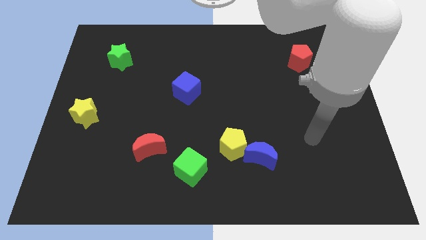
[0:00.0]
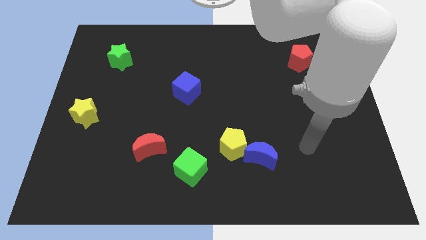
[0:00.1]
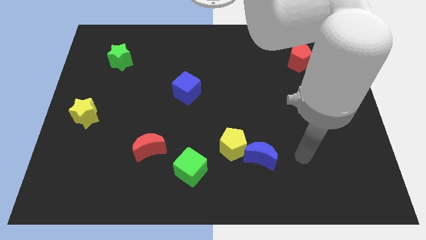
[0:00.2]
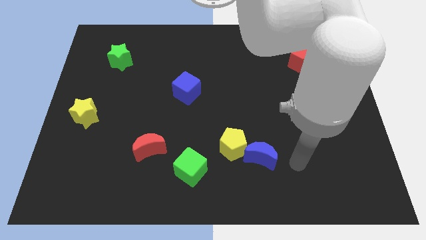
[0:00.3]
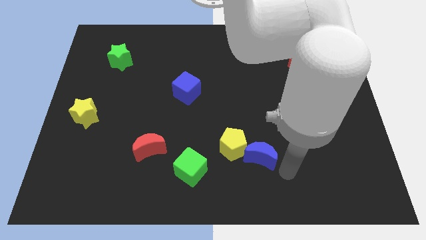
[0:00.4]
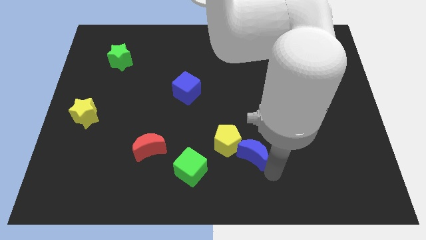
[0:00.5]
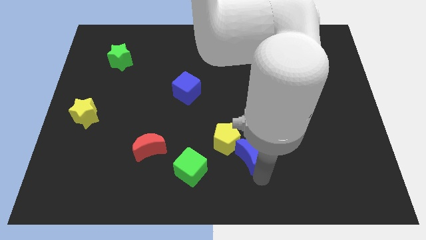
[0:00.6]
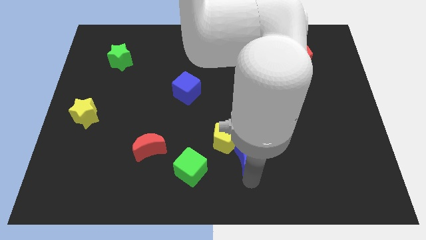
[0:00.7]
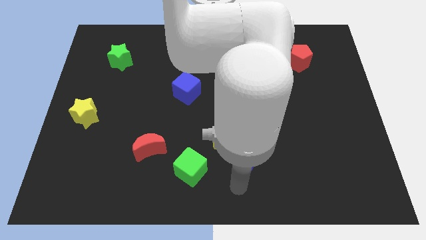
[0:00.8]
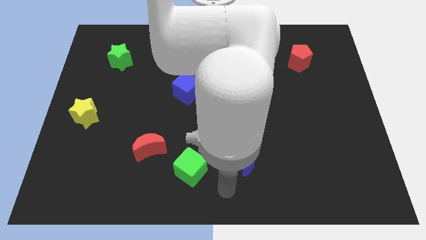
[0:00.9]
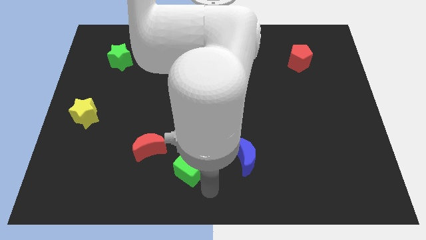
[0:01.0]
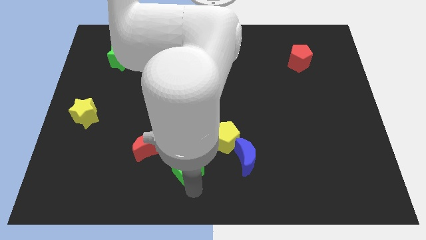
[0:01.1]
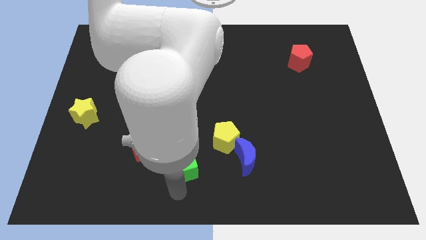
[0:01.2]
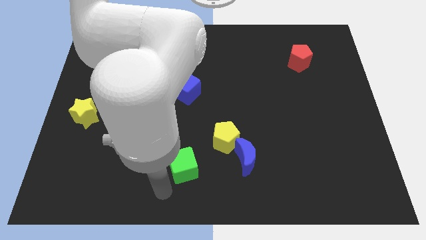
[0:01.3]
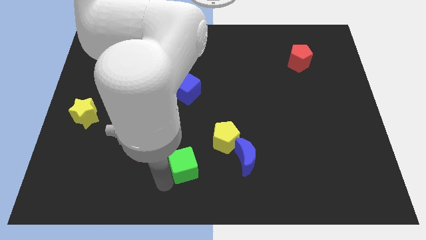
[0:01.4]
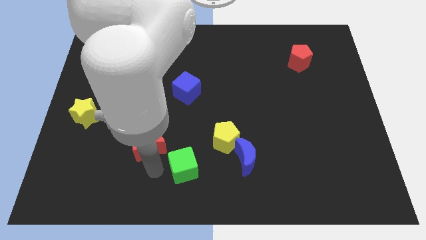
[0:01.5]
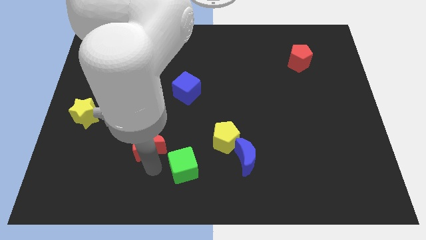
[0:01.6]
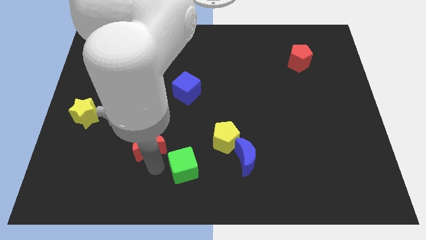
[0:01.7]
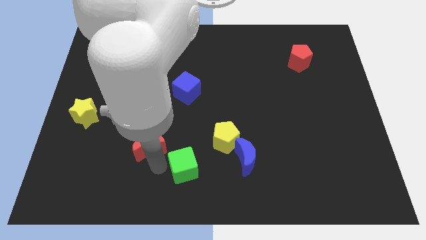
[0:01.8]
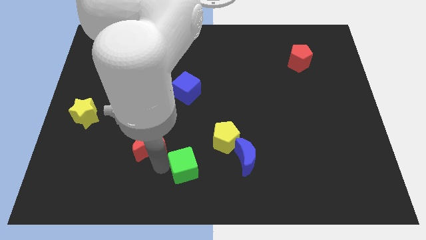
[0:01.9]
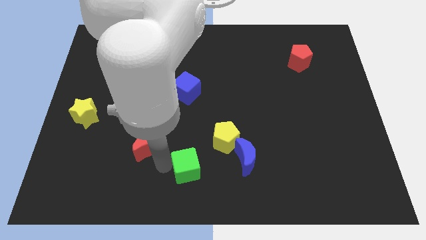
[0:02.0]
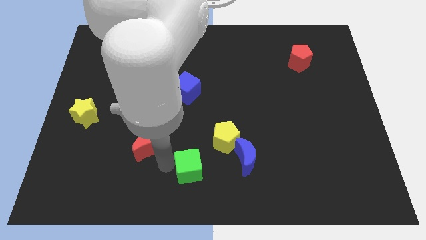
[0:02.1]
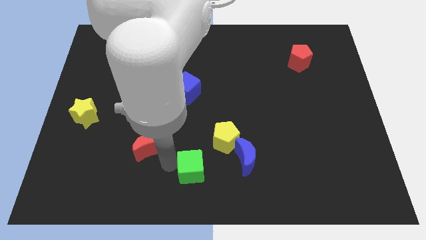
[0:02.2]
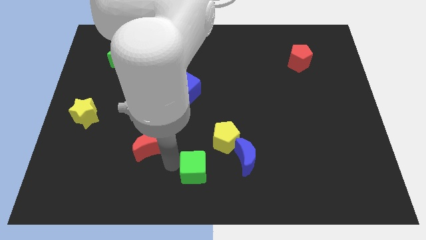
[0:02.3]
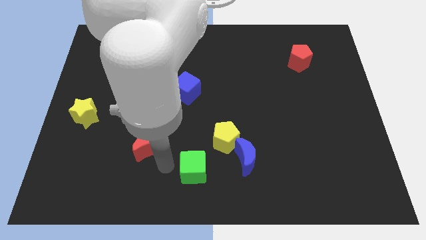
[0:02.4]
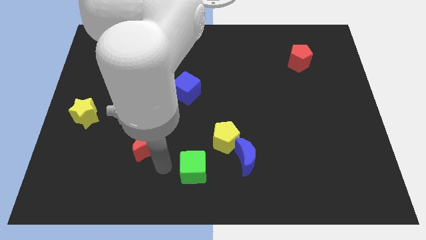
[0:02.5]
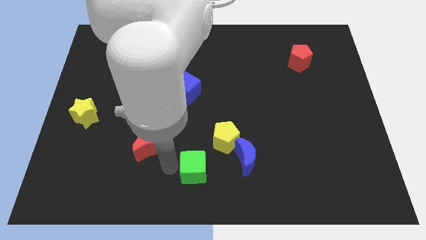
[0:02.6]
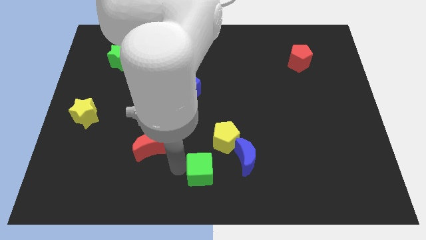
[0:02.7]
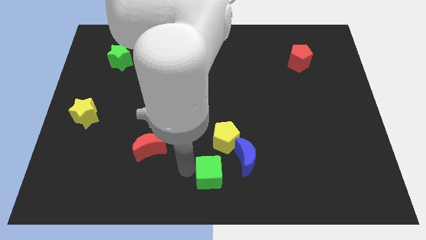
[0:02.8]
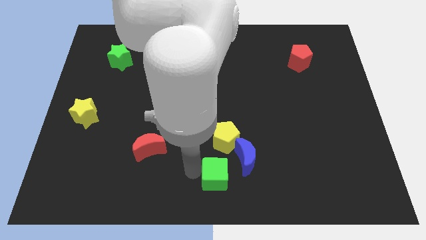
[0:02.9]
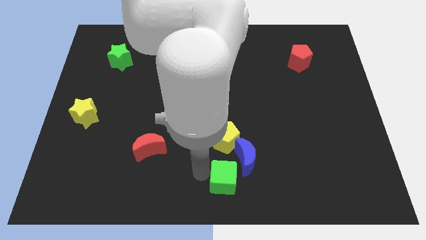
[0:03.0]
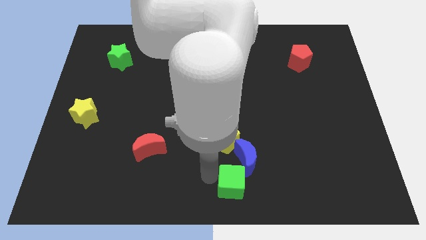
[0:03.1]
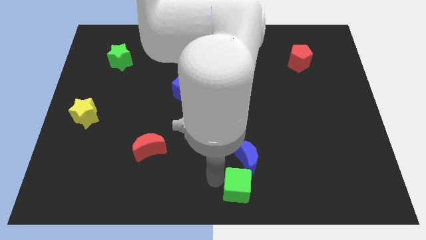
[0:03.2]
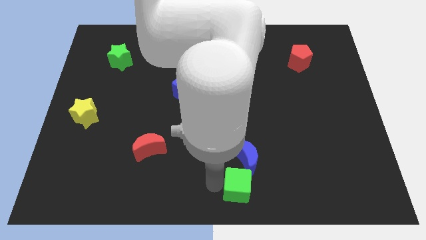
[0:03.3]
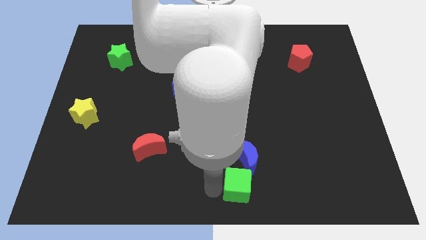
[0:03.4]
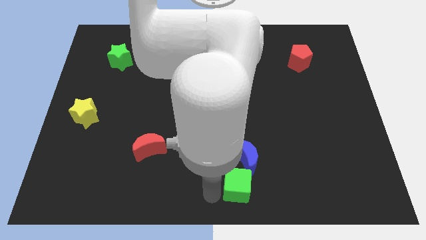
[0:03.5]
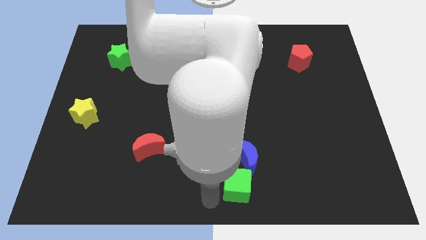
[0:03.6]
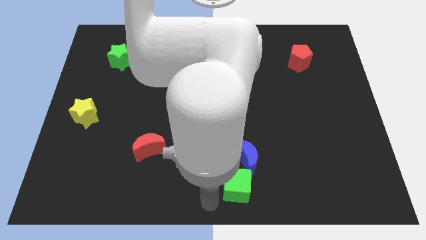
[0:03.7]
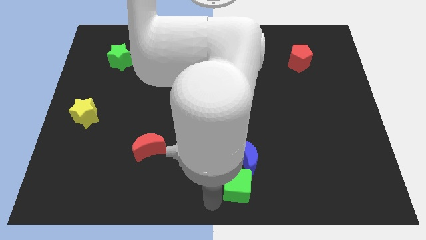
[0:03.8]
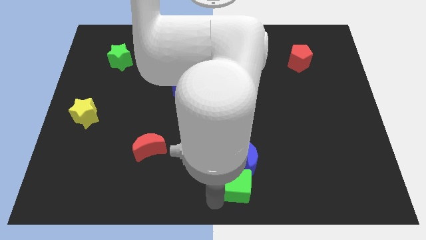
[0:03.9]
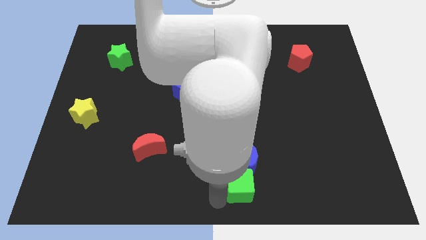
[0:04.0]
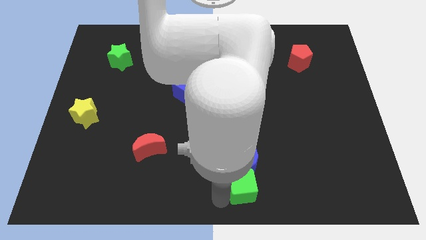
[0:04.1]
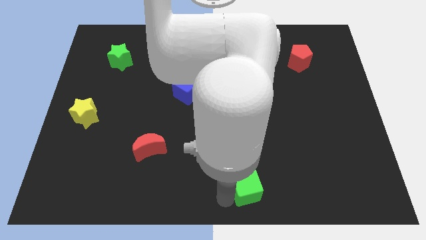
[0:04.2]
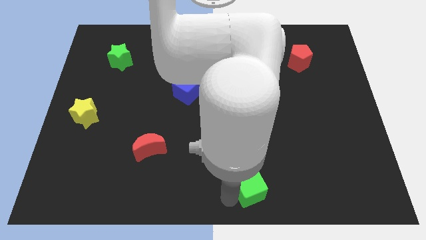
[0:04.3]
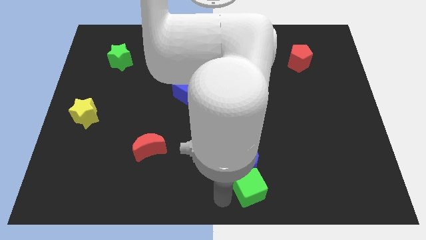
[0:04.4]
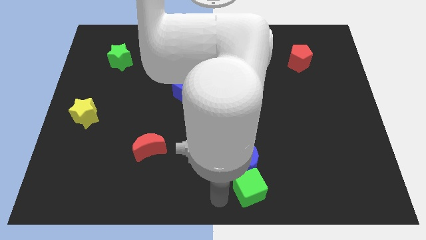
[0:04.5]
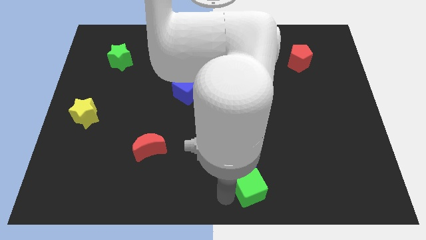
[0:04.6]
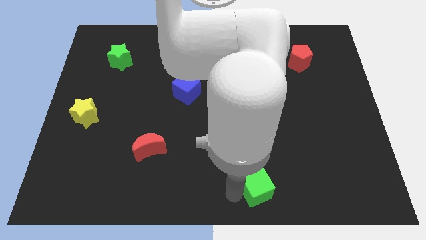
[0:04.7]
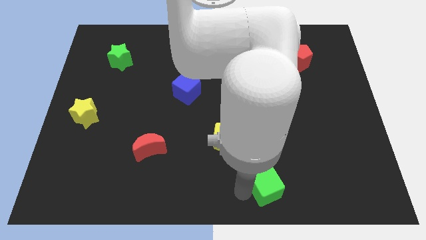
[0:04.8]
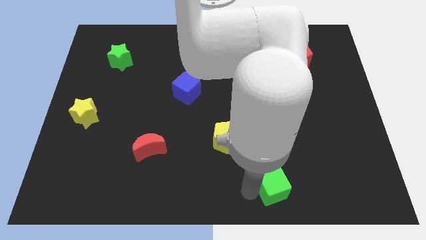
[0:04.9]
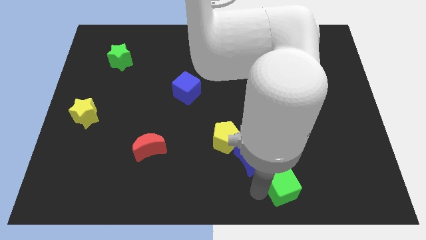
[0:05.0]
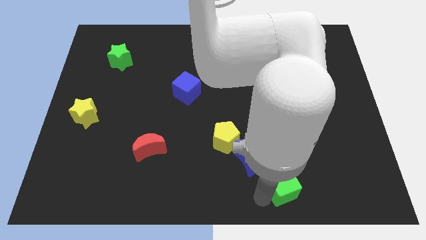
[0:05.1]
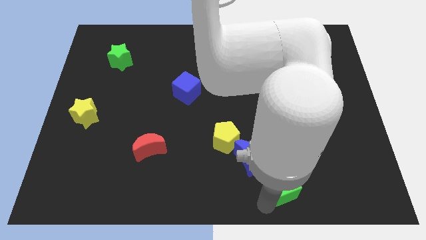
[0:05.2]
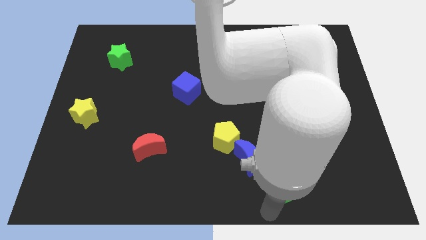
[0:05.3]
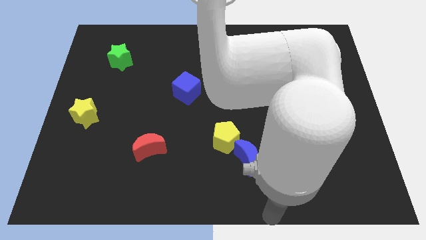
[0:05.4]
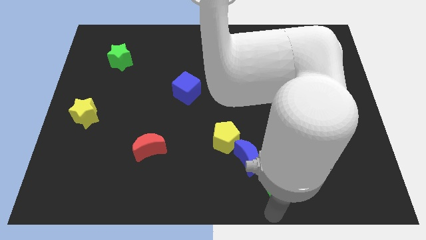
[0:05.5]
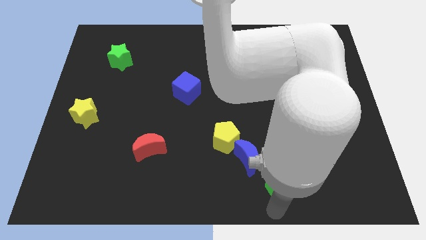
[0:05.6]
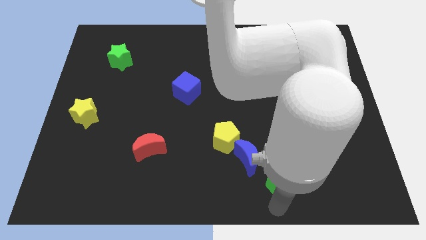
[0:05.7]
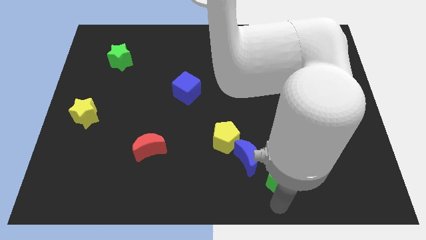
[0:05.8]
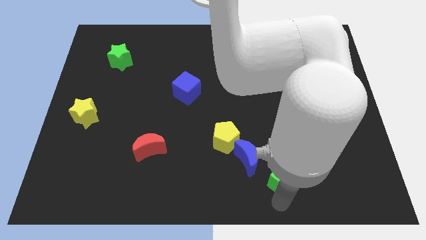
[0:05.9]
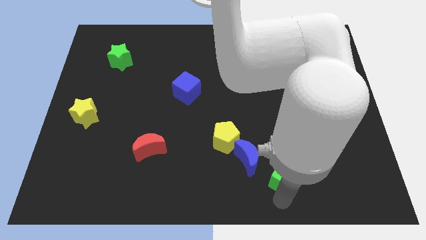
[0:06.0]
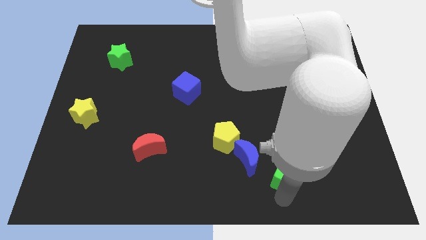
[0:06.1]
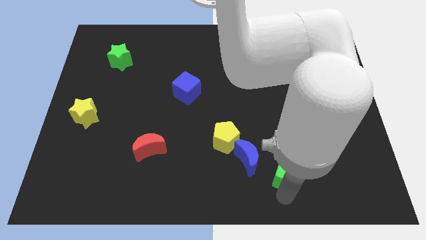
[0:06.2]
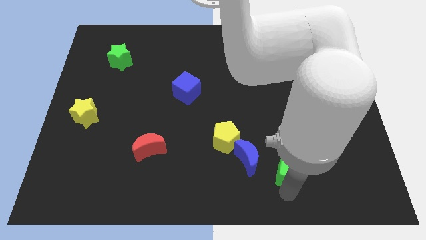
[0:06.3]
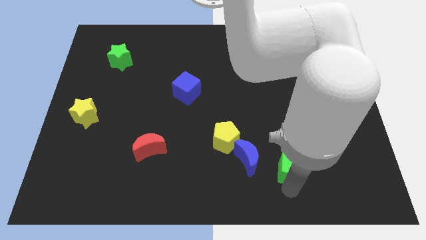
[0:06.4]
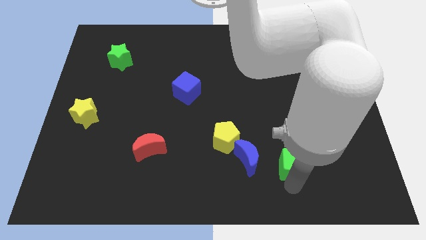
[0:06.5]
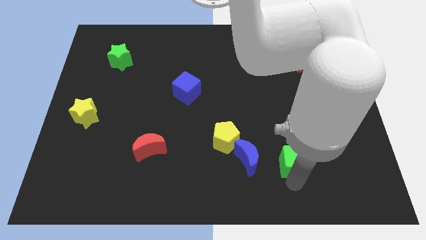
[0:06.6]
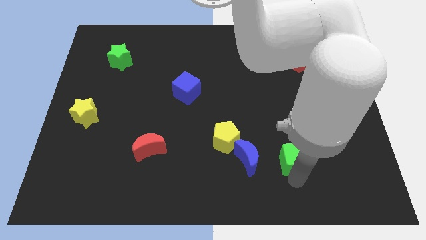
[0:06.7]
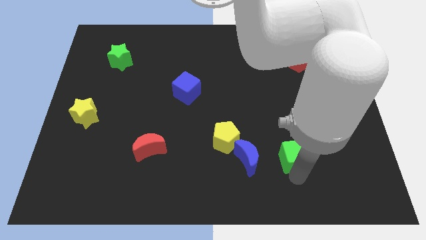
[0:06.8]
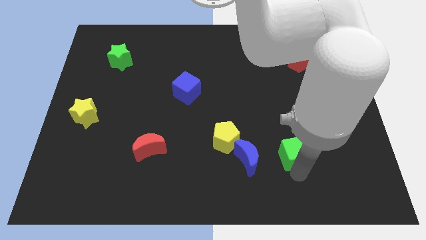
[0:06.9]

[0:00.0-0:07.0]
move the green cube just right of the yellow pentagon
